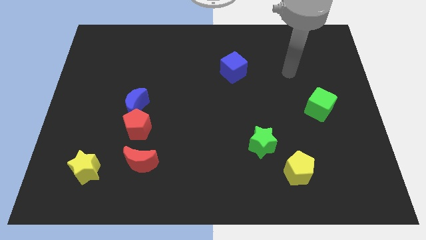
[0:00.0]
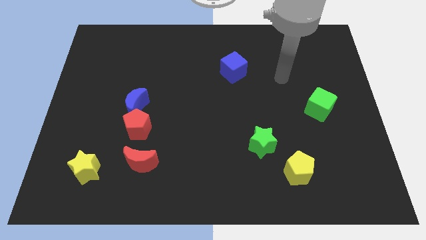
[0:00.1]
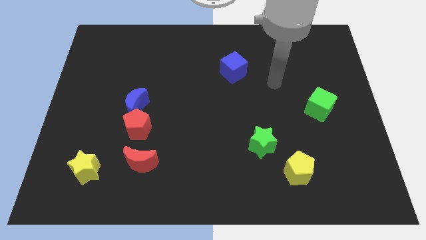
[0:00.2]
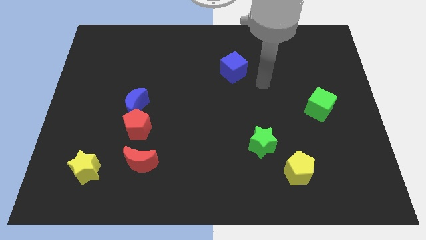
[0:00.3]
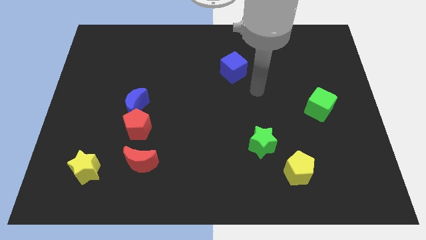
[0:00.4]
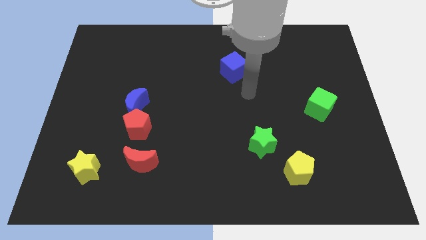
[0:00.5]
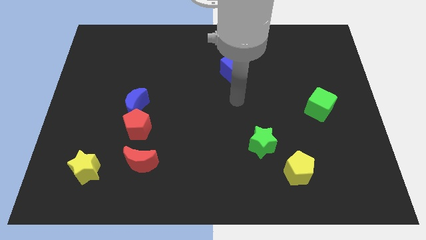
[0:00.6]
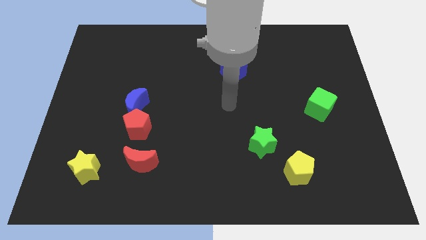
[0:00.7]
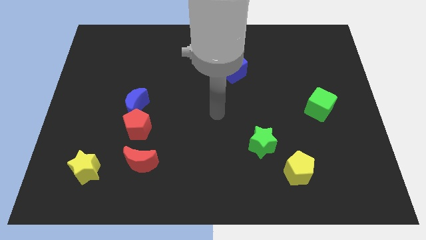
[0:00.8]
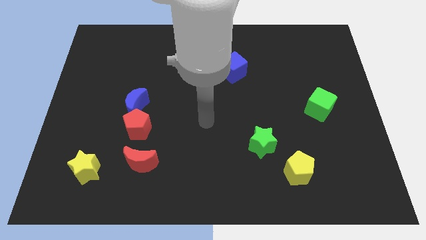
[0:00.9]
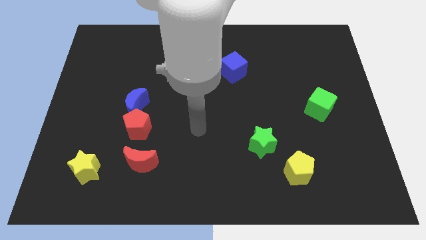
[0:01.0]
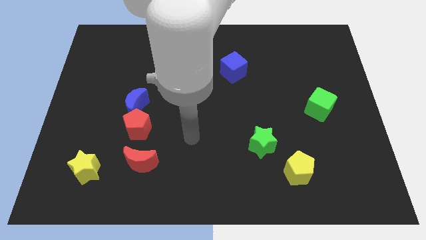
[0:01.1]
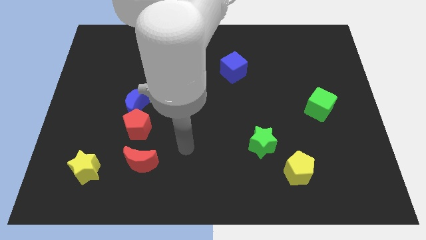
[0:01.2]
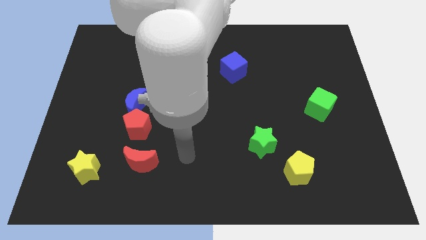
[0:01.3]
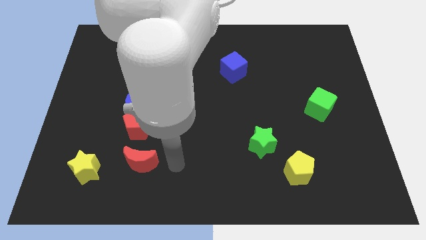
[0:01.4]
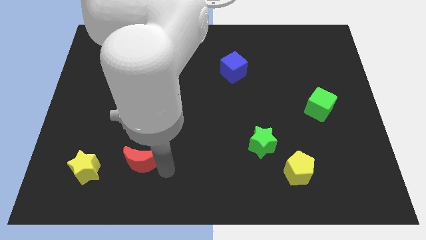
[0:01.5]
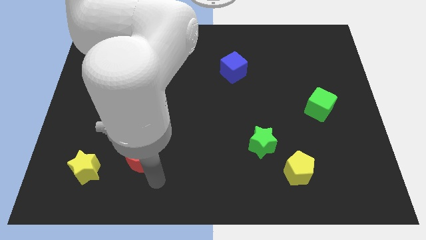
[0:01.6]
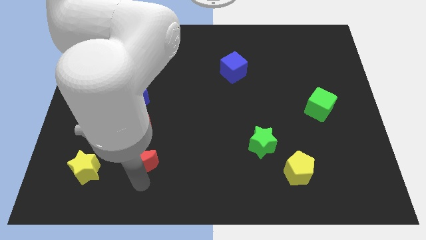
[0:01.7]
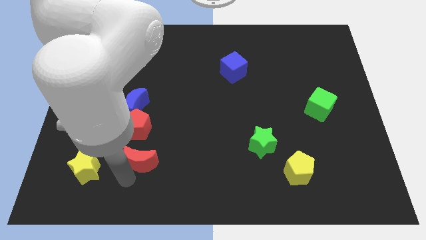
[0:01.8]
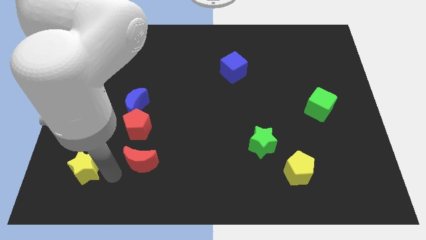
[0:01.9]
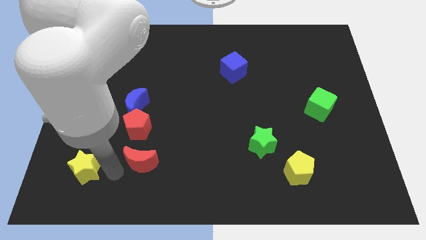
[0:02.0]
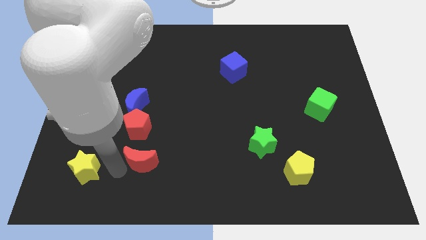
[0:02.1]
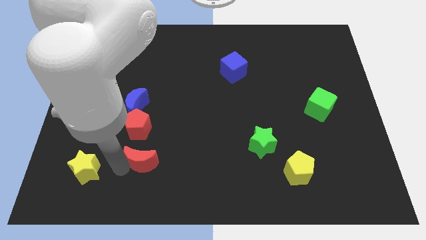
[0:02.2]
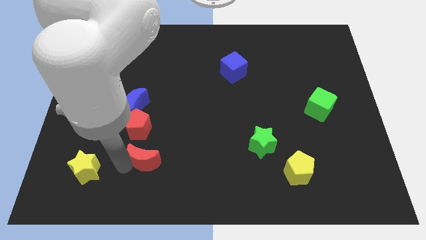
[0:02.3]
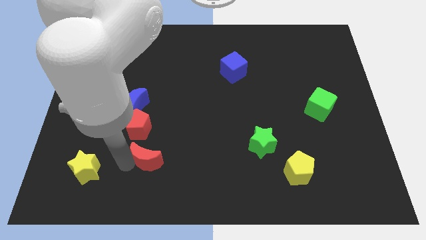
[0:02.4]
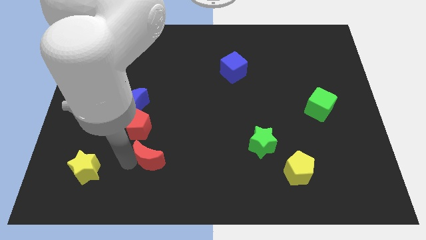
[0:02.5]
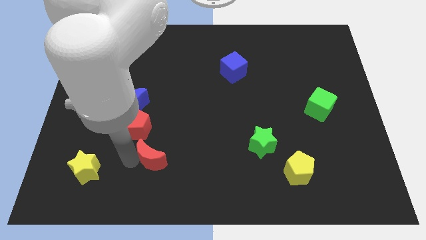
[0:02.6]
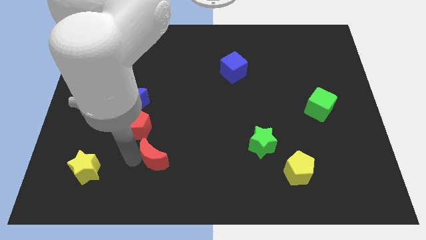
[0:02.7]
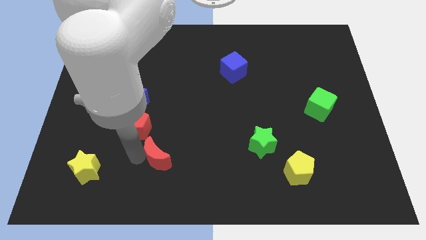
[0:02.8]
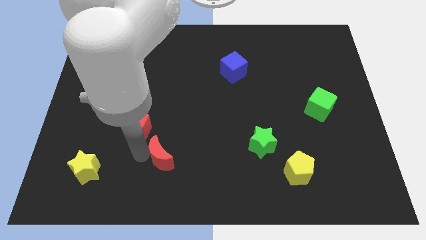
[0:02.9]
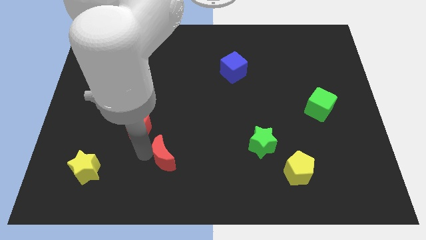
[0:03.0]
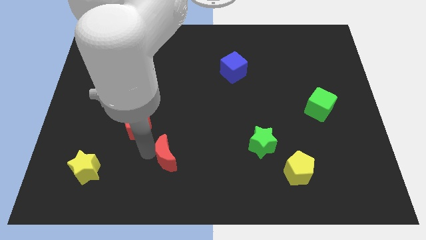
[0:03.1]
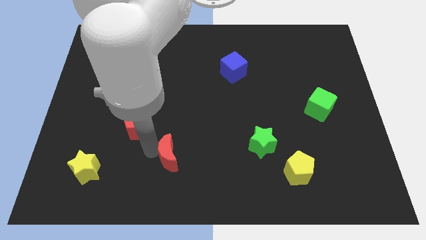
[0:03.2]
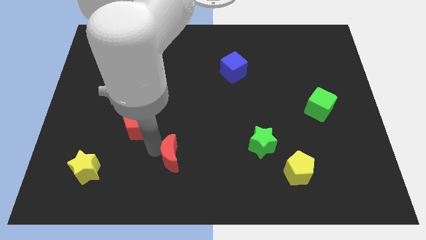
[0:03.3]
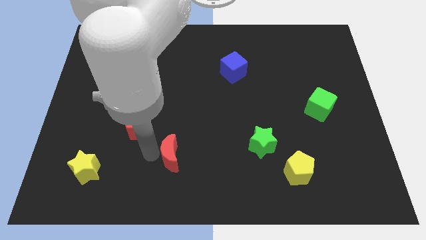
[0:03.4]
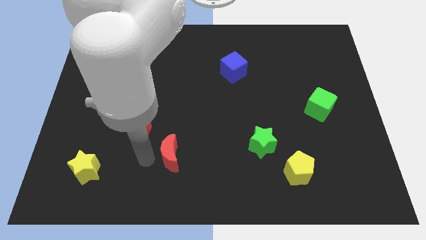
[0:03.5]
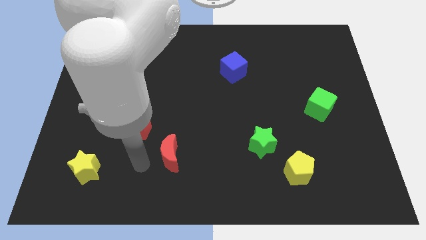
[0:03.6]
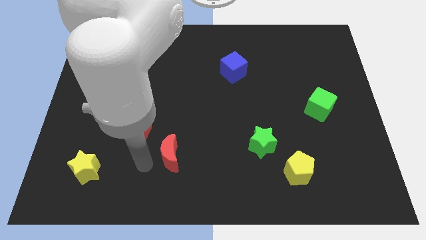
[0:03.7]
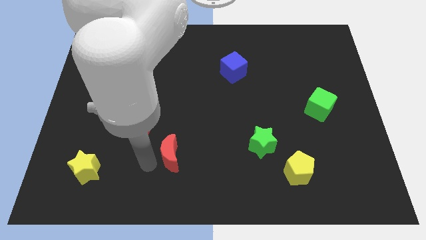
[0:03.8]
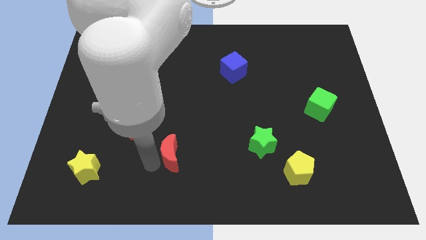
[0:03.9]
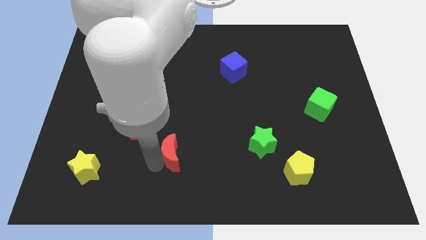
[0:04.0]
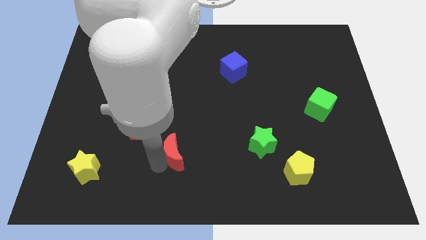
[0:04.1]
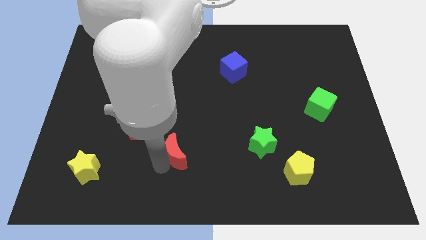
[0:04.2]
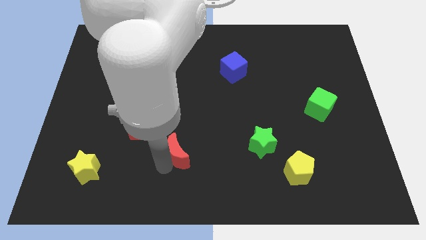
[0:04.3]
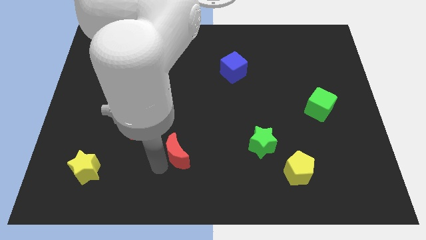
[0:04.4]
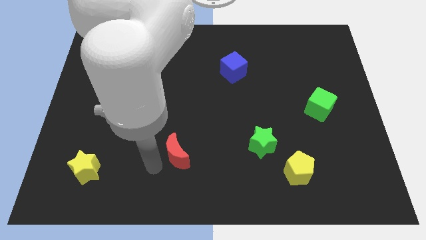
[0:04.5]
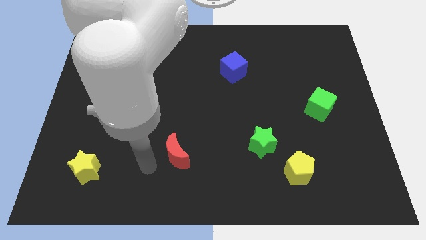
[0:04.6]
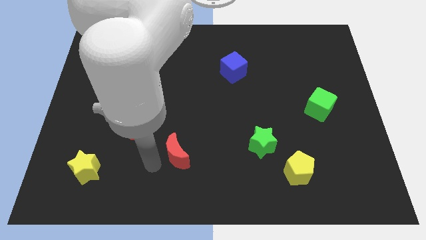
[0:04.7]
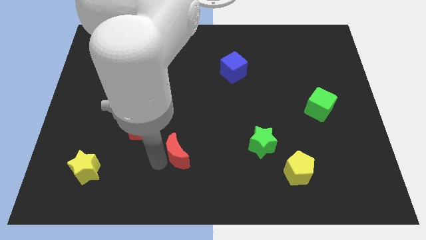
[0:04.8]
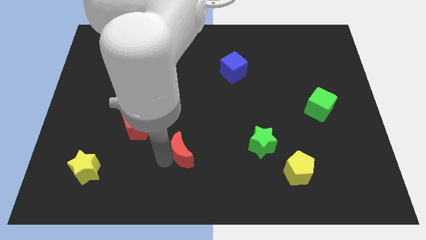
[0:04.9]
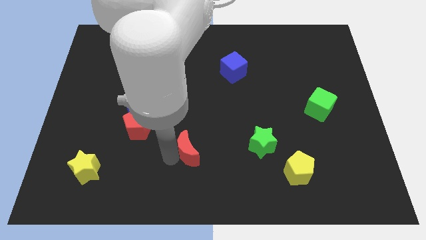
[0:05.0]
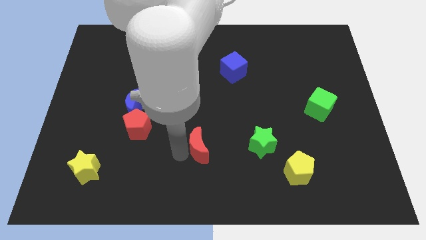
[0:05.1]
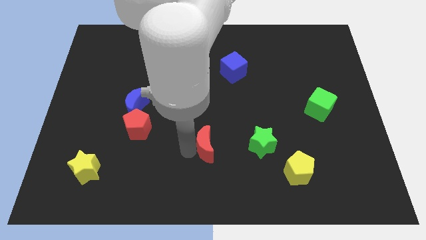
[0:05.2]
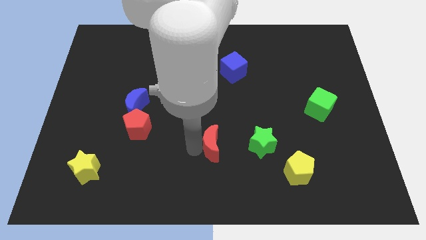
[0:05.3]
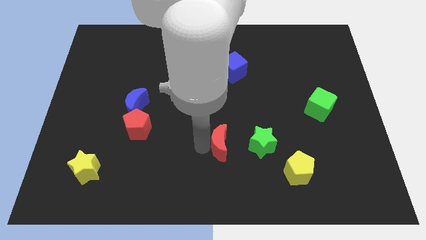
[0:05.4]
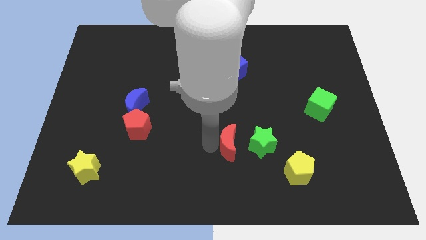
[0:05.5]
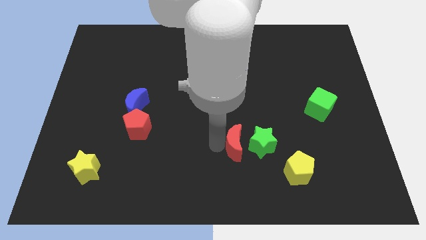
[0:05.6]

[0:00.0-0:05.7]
move the red moon towards the green star

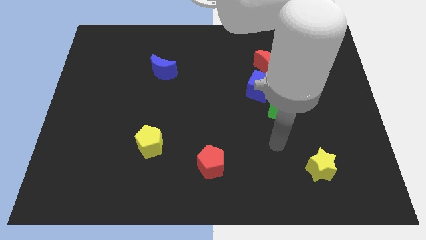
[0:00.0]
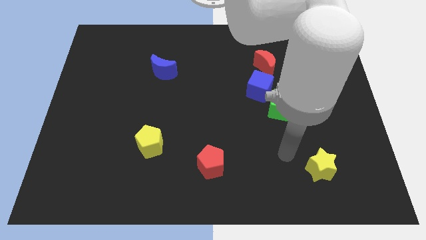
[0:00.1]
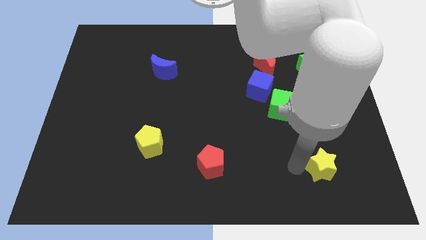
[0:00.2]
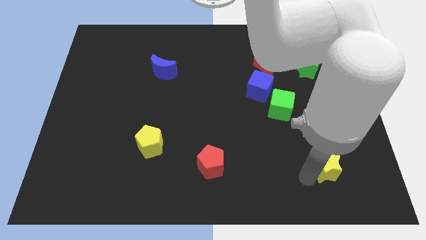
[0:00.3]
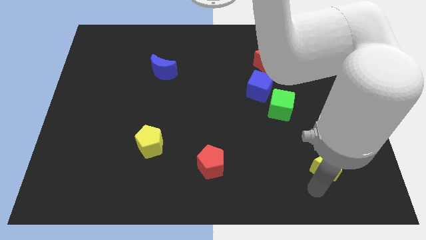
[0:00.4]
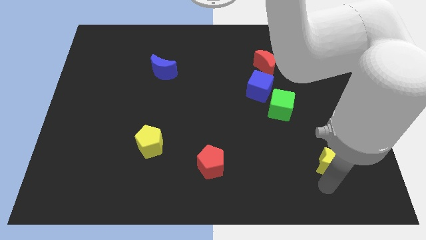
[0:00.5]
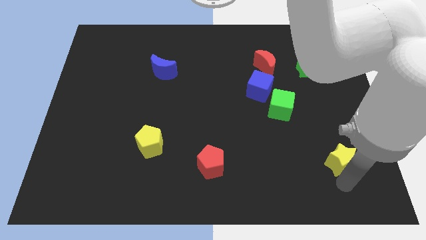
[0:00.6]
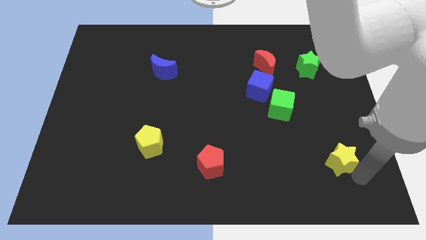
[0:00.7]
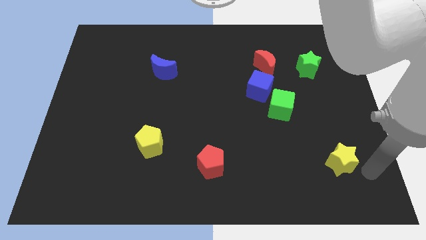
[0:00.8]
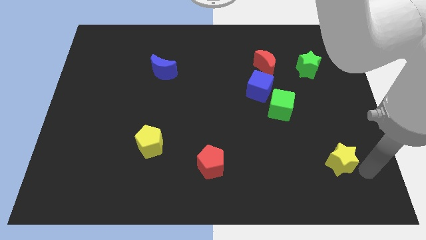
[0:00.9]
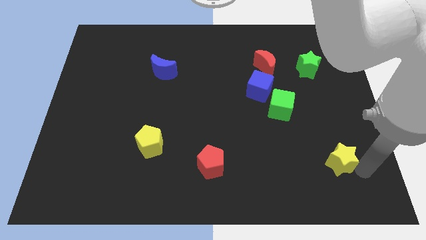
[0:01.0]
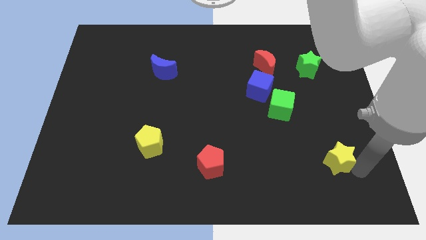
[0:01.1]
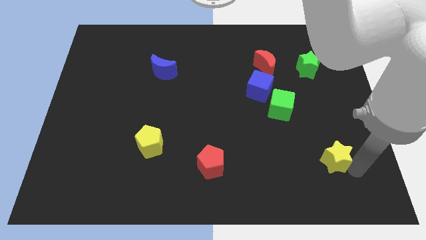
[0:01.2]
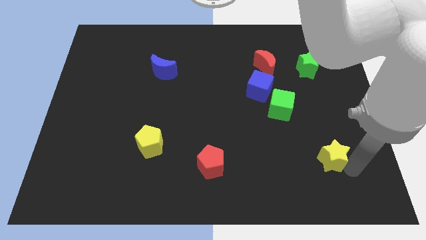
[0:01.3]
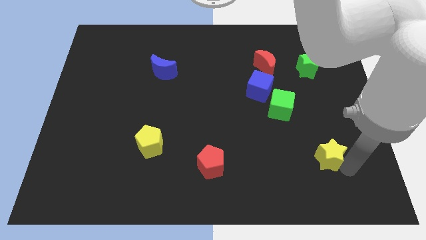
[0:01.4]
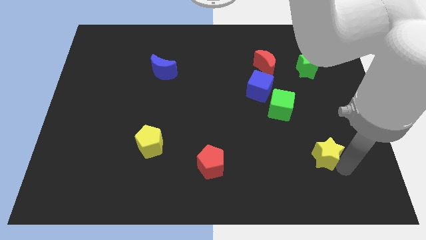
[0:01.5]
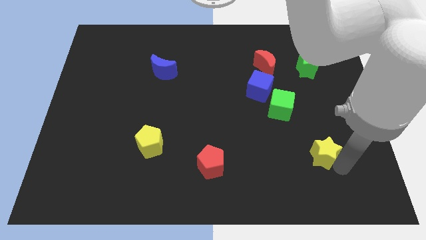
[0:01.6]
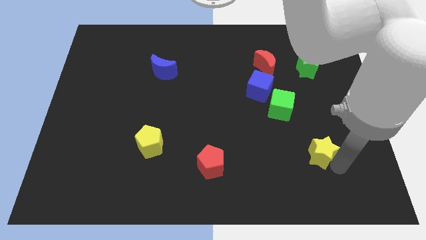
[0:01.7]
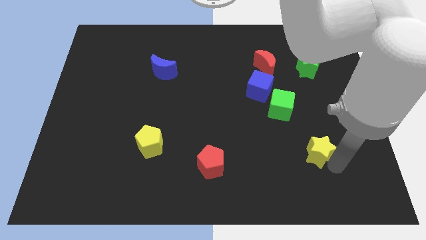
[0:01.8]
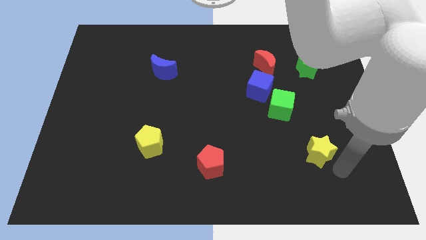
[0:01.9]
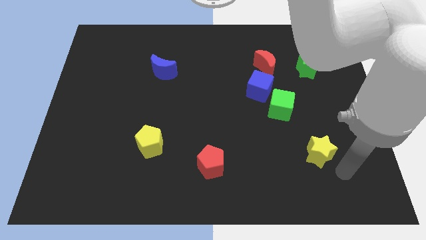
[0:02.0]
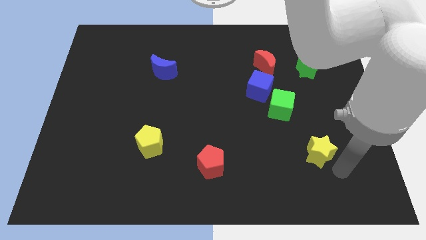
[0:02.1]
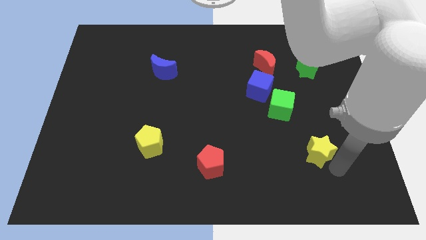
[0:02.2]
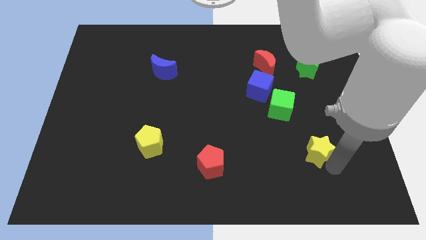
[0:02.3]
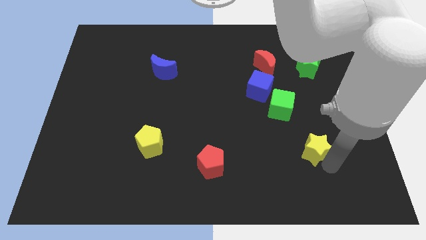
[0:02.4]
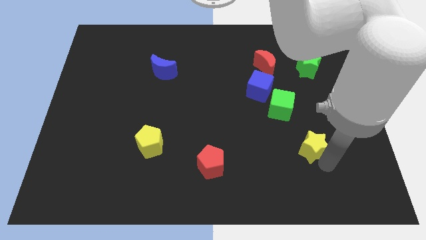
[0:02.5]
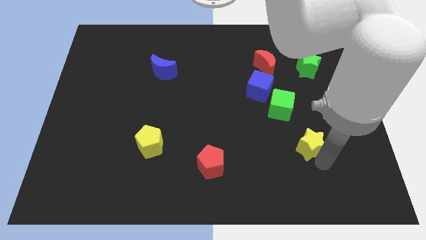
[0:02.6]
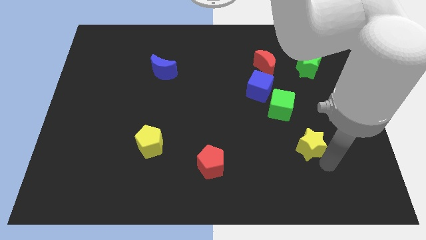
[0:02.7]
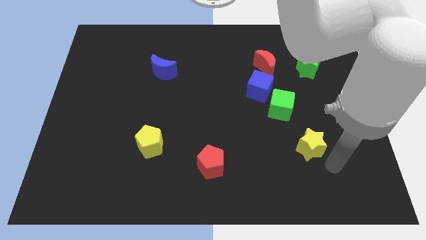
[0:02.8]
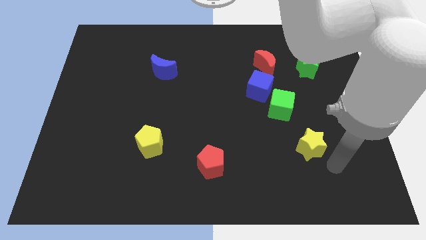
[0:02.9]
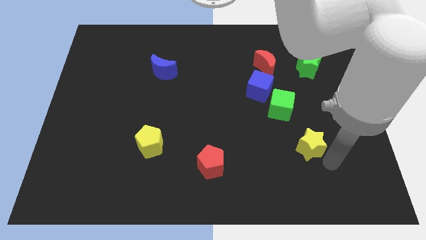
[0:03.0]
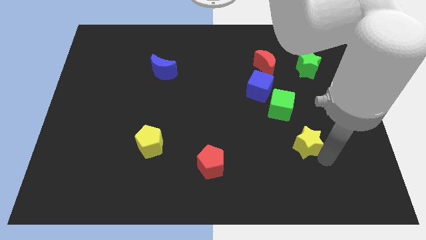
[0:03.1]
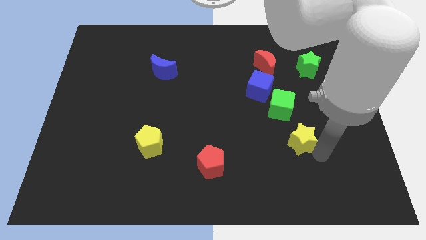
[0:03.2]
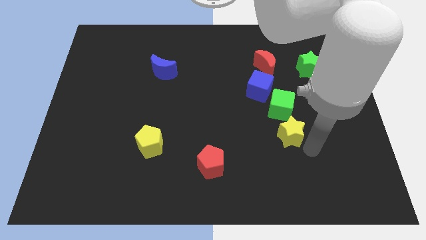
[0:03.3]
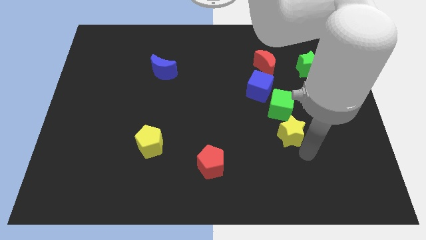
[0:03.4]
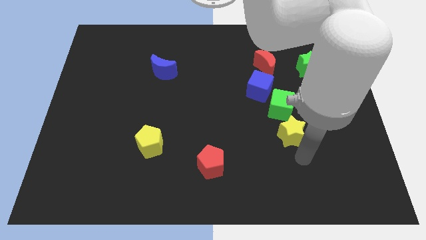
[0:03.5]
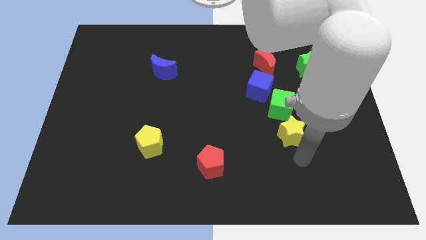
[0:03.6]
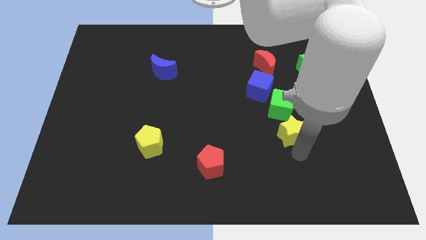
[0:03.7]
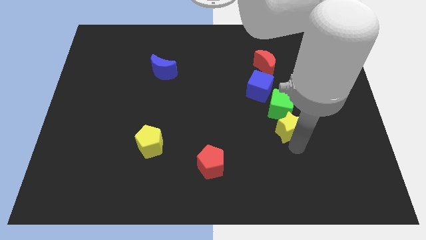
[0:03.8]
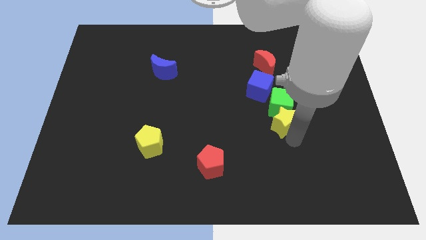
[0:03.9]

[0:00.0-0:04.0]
put the yellow star towards the green cube
